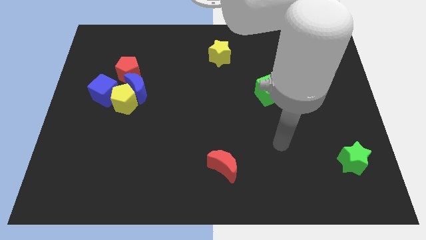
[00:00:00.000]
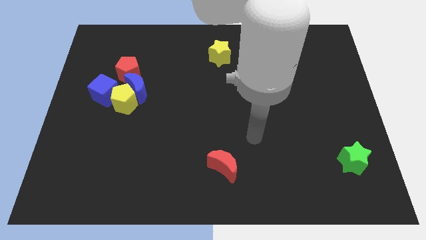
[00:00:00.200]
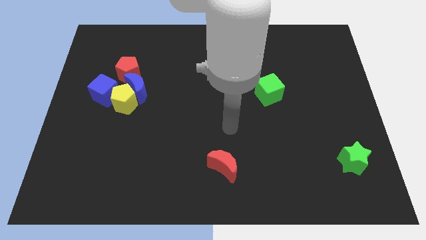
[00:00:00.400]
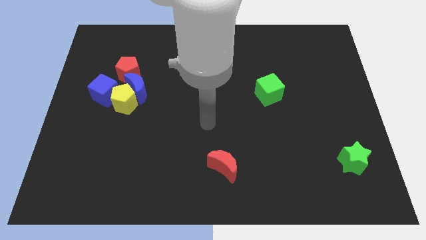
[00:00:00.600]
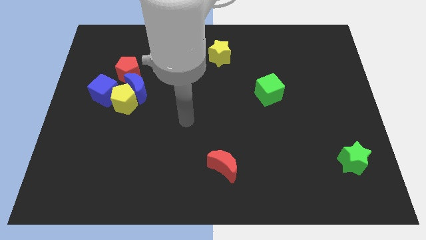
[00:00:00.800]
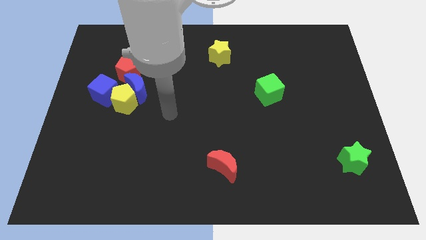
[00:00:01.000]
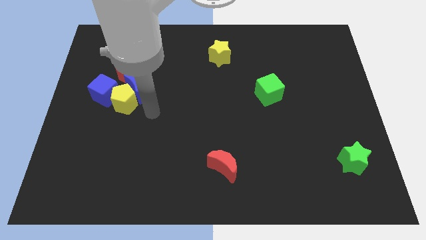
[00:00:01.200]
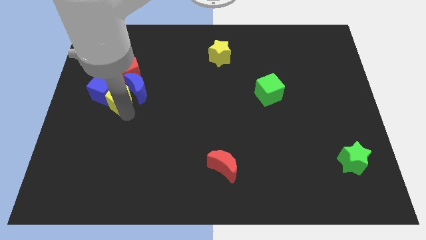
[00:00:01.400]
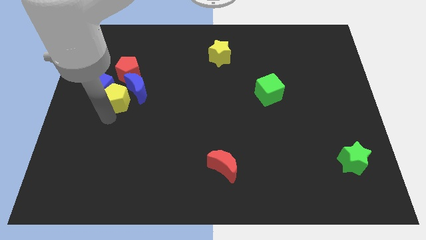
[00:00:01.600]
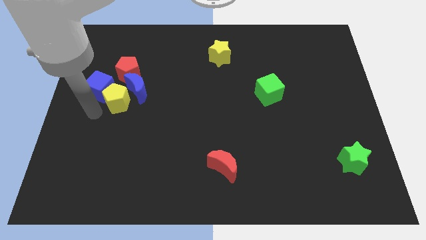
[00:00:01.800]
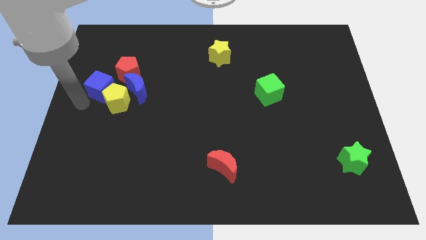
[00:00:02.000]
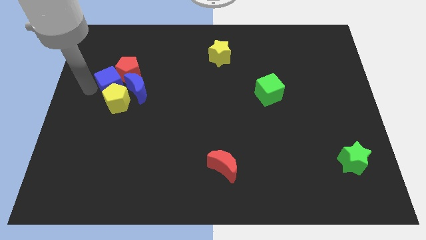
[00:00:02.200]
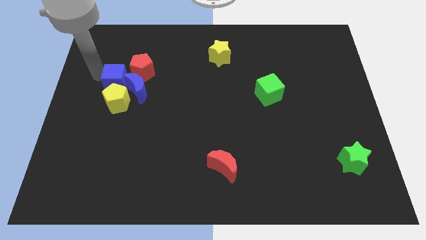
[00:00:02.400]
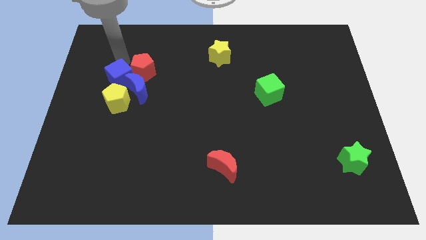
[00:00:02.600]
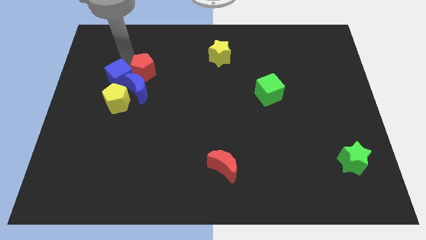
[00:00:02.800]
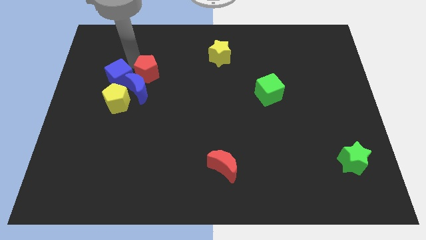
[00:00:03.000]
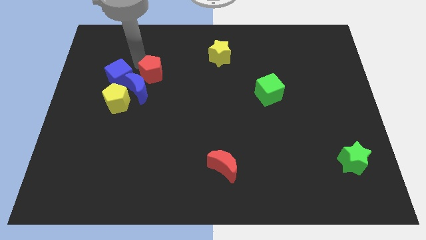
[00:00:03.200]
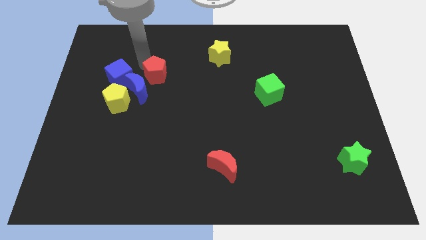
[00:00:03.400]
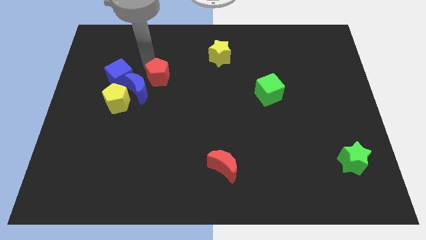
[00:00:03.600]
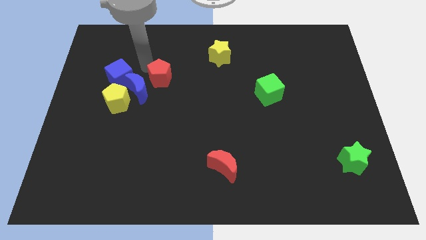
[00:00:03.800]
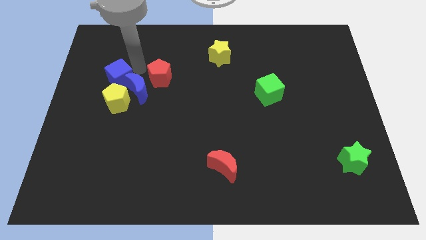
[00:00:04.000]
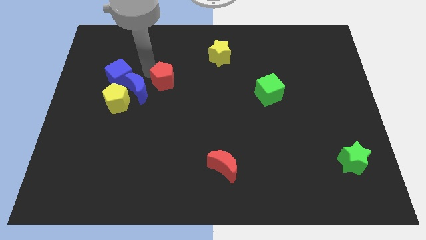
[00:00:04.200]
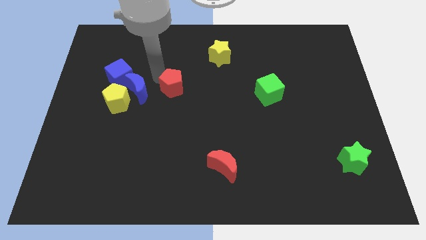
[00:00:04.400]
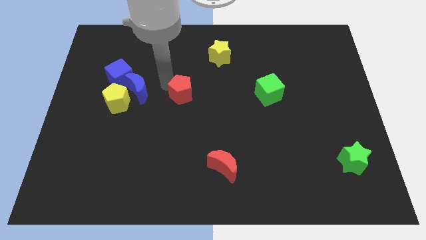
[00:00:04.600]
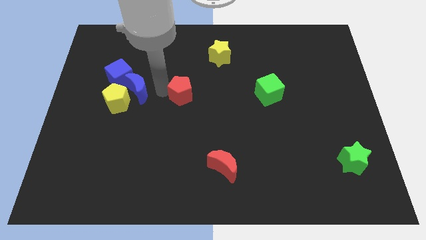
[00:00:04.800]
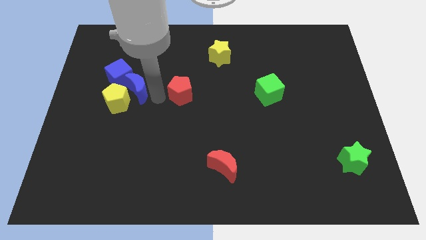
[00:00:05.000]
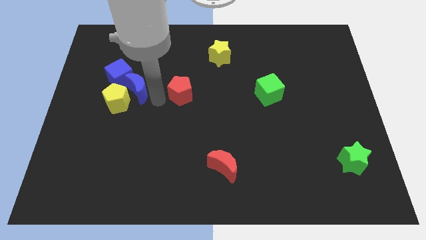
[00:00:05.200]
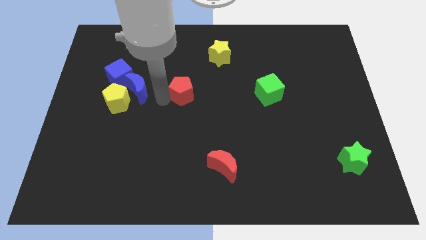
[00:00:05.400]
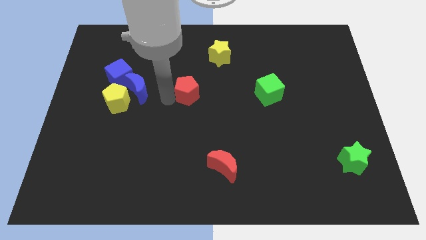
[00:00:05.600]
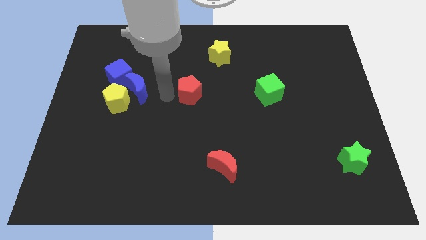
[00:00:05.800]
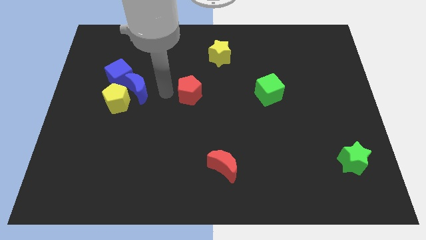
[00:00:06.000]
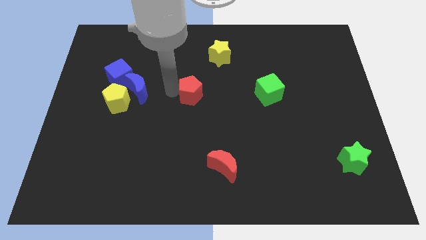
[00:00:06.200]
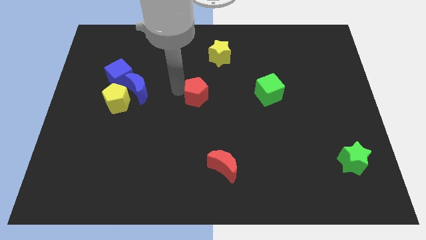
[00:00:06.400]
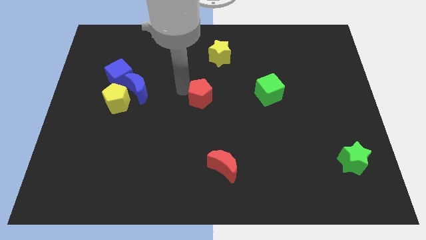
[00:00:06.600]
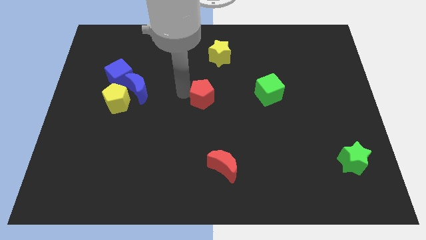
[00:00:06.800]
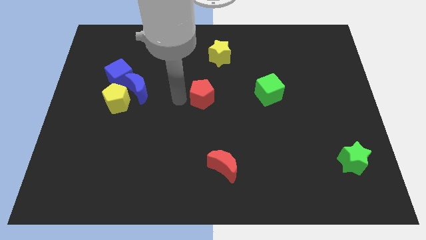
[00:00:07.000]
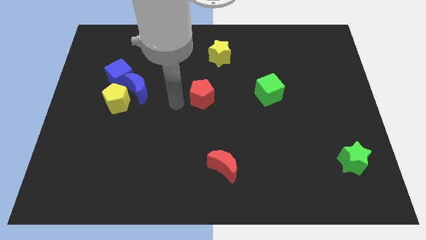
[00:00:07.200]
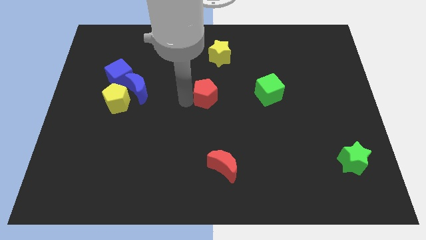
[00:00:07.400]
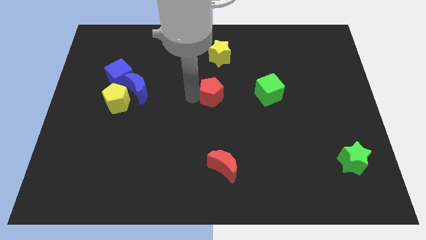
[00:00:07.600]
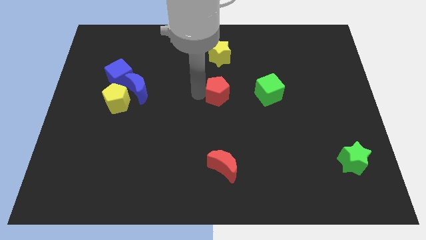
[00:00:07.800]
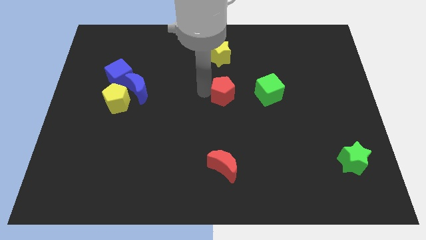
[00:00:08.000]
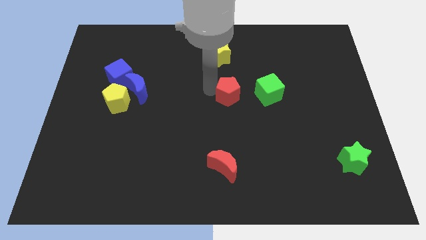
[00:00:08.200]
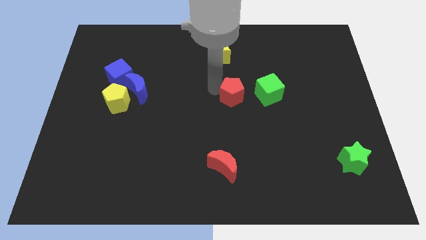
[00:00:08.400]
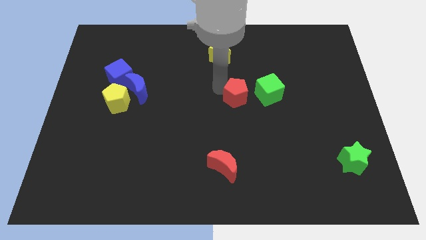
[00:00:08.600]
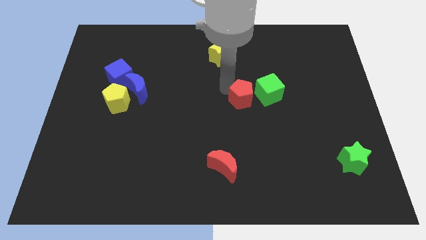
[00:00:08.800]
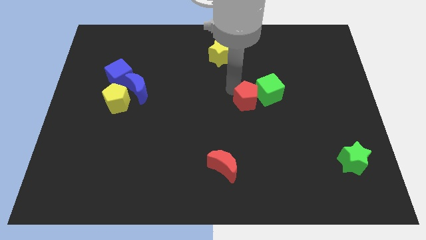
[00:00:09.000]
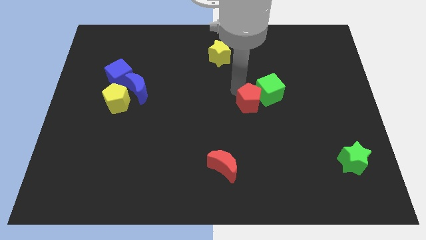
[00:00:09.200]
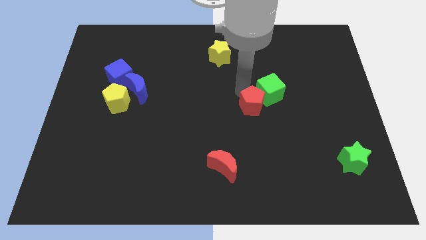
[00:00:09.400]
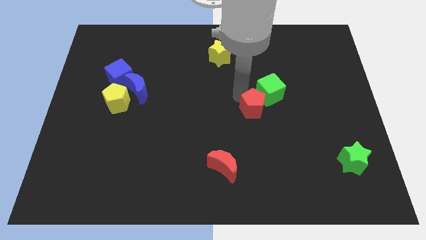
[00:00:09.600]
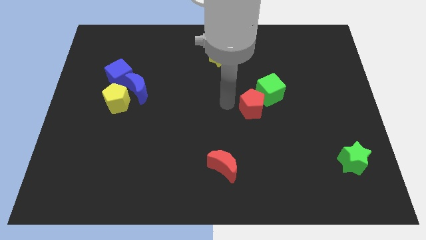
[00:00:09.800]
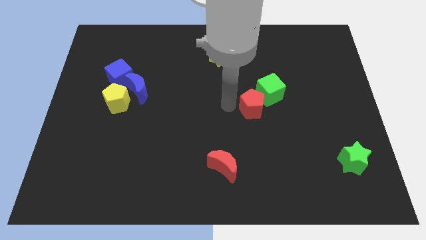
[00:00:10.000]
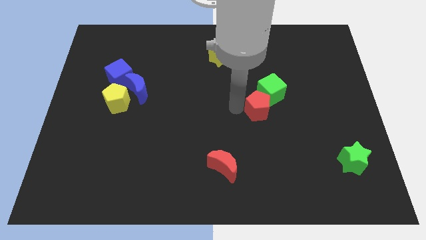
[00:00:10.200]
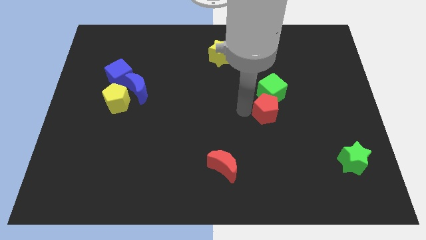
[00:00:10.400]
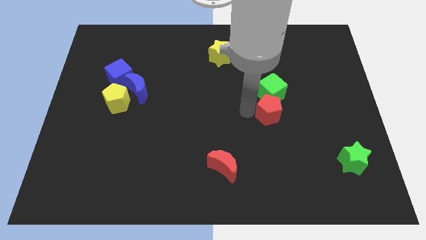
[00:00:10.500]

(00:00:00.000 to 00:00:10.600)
slide the red pentagon diagonally down and to the right of the green cube

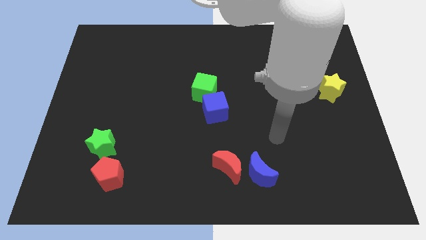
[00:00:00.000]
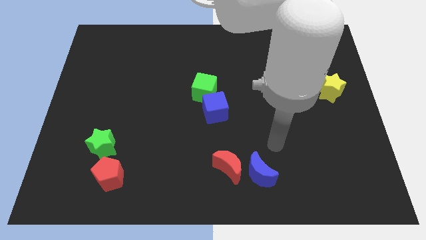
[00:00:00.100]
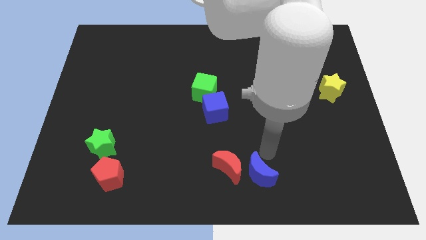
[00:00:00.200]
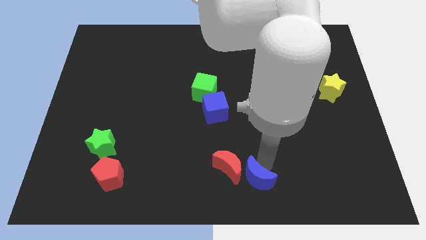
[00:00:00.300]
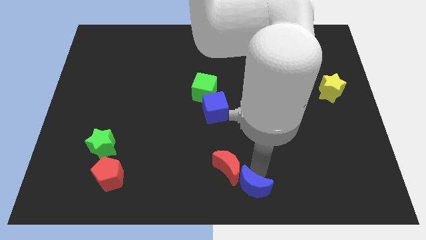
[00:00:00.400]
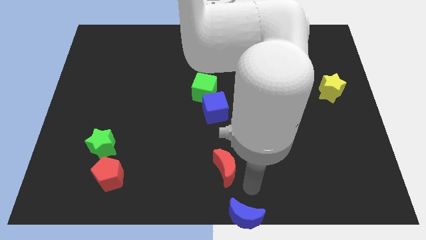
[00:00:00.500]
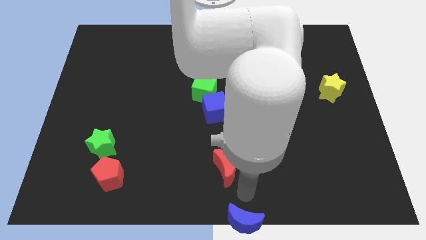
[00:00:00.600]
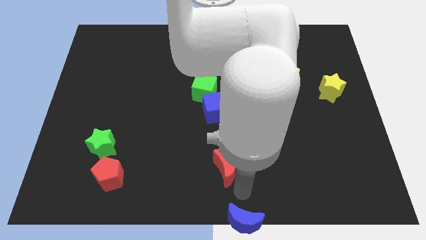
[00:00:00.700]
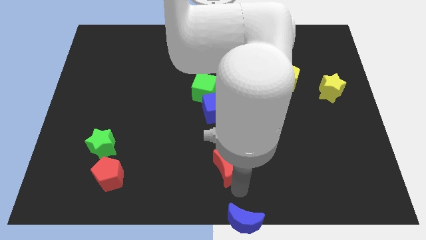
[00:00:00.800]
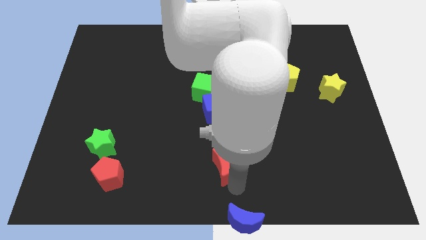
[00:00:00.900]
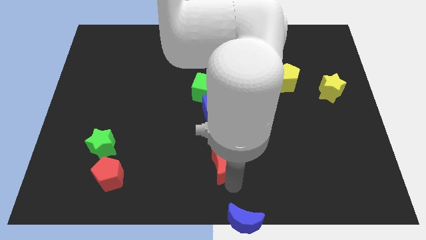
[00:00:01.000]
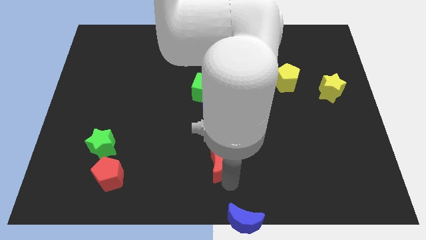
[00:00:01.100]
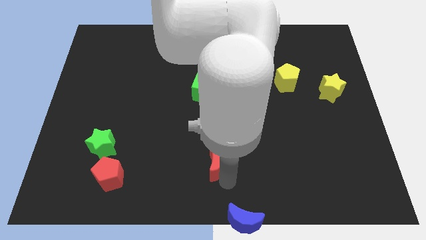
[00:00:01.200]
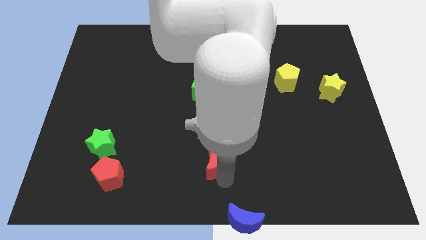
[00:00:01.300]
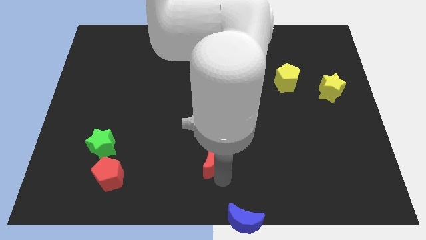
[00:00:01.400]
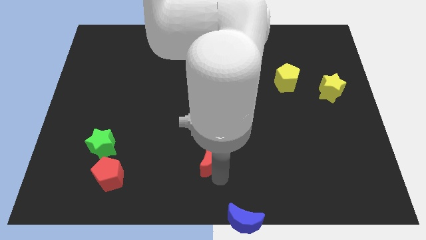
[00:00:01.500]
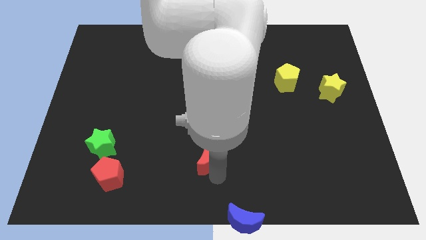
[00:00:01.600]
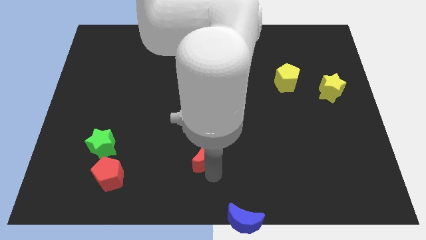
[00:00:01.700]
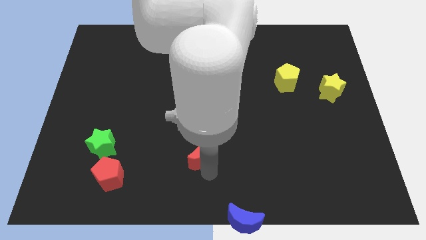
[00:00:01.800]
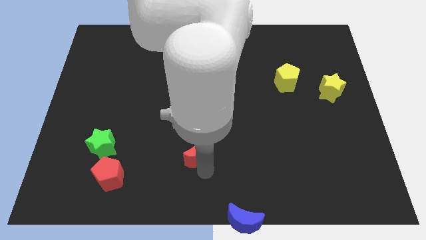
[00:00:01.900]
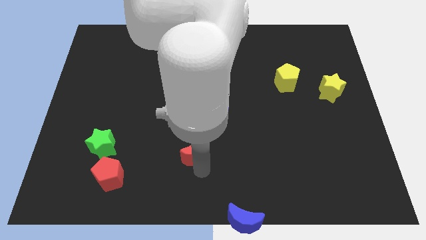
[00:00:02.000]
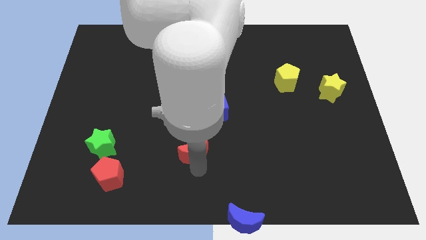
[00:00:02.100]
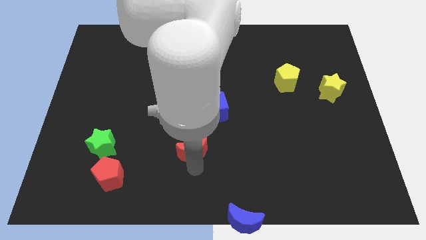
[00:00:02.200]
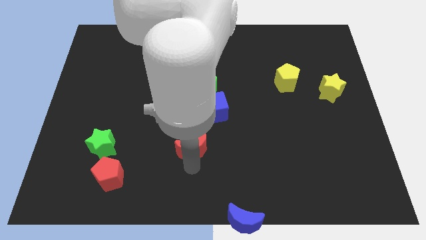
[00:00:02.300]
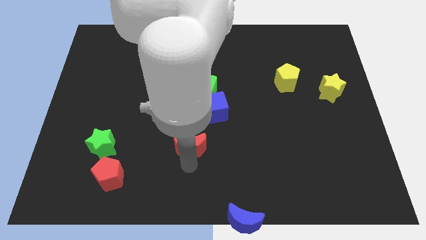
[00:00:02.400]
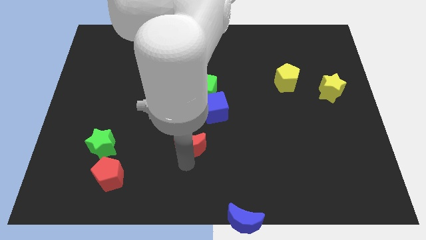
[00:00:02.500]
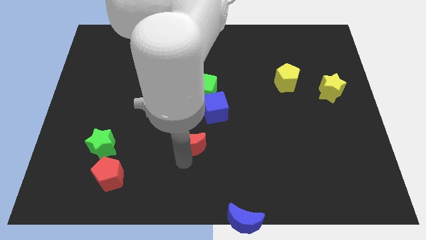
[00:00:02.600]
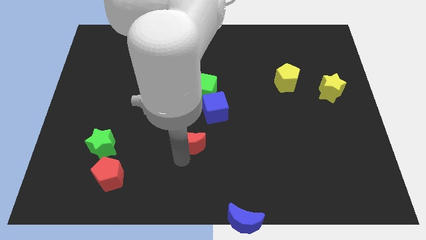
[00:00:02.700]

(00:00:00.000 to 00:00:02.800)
move the red moon to the bottom of the green cube
